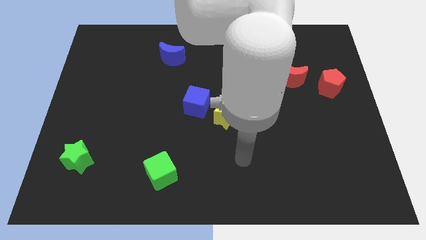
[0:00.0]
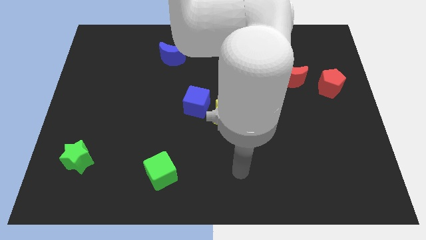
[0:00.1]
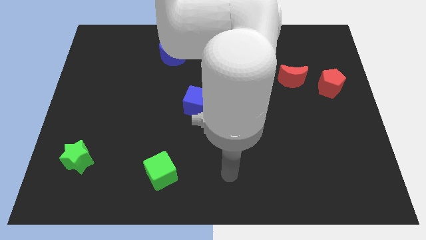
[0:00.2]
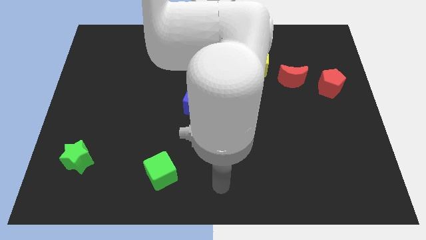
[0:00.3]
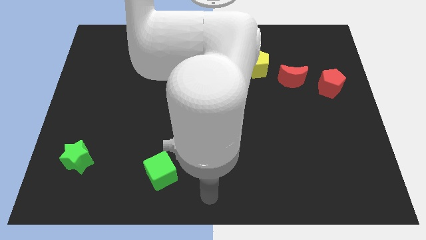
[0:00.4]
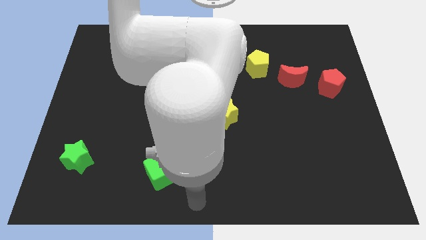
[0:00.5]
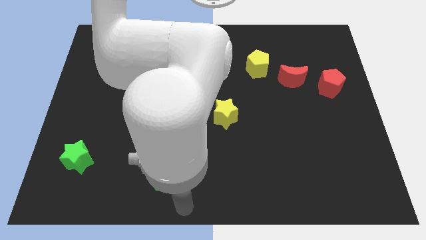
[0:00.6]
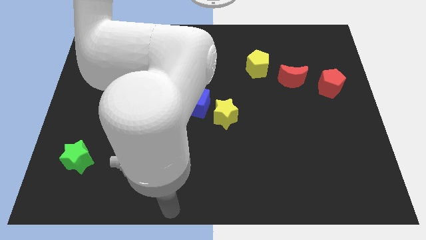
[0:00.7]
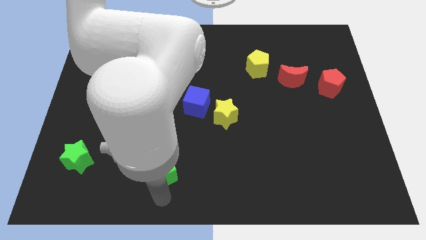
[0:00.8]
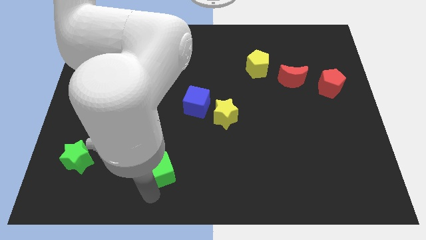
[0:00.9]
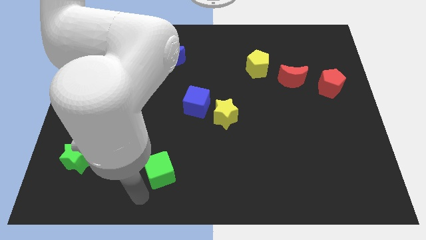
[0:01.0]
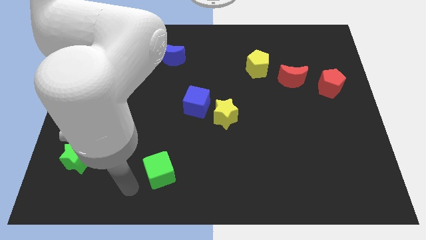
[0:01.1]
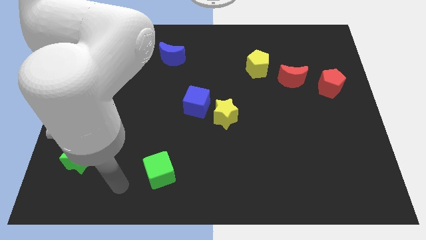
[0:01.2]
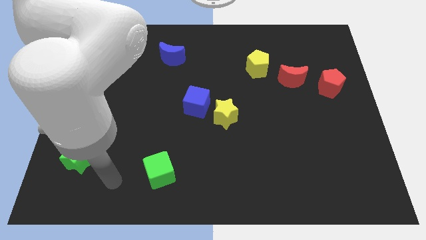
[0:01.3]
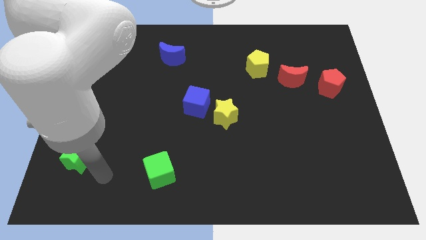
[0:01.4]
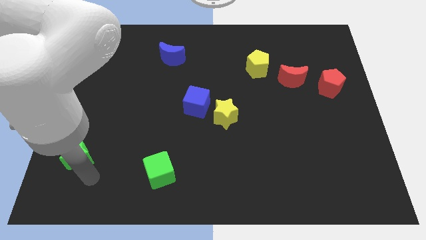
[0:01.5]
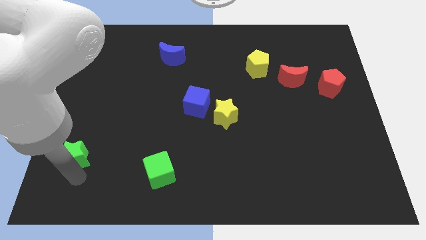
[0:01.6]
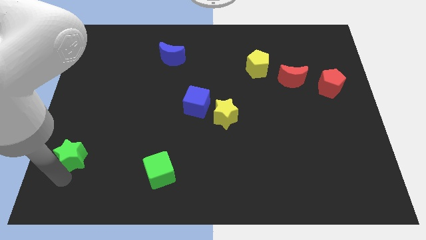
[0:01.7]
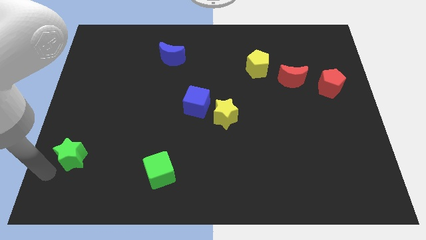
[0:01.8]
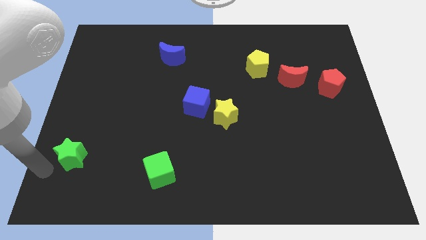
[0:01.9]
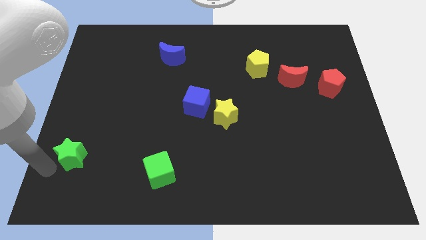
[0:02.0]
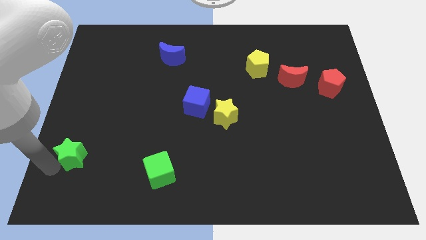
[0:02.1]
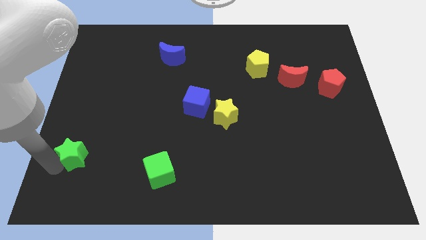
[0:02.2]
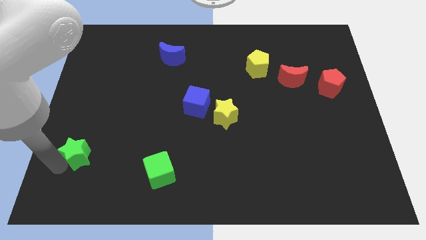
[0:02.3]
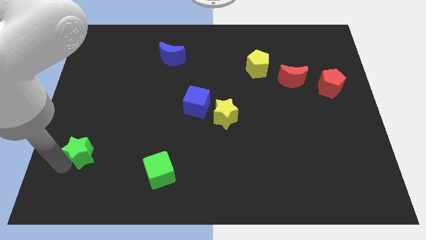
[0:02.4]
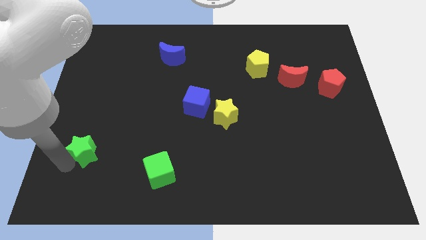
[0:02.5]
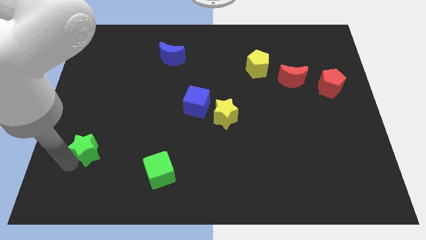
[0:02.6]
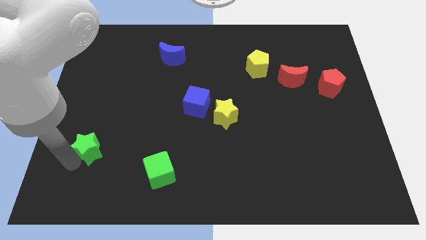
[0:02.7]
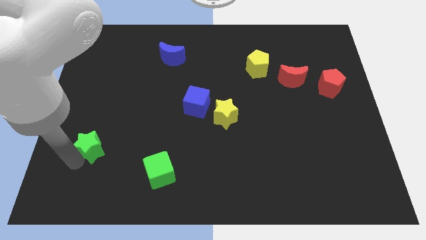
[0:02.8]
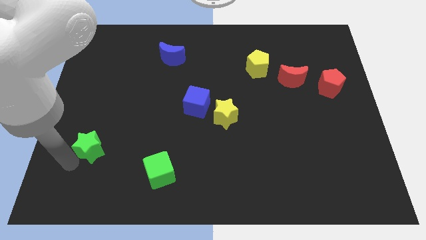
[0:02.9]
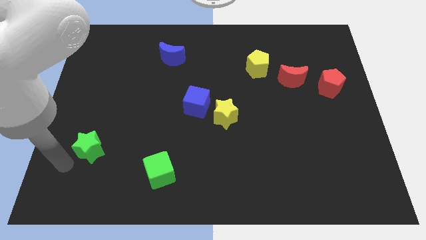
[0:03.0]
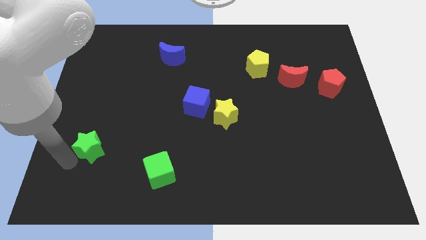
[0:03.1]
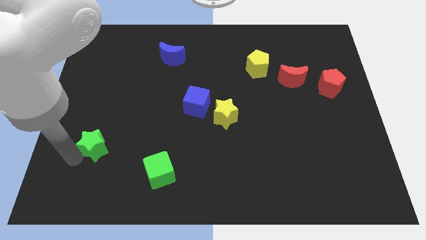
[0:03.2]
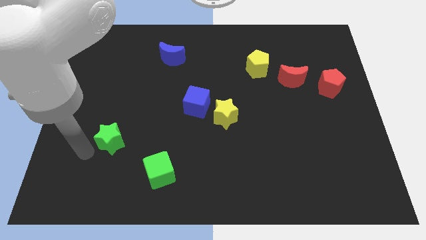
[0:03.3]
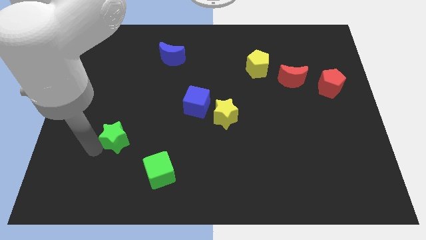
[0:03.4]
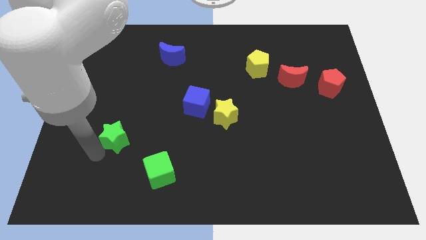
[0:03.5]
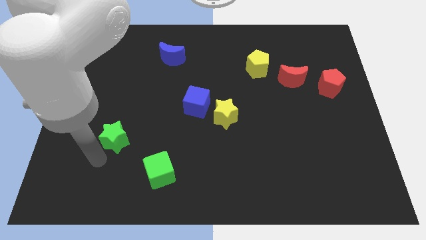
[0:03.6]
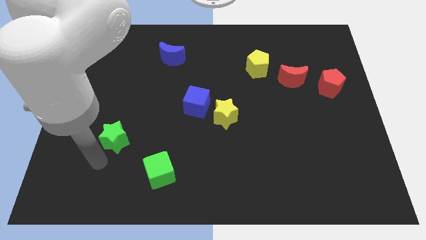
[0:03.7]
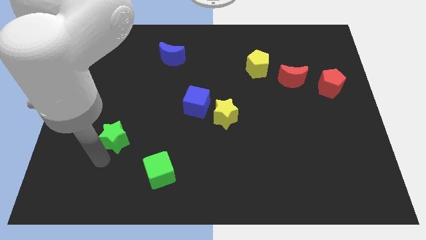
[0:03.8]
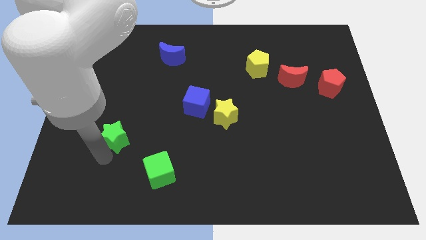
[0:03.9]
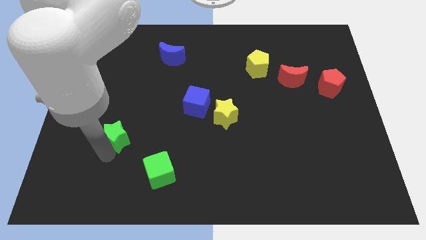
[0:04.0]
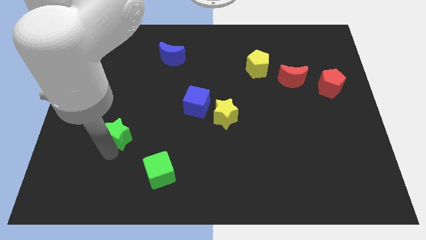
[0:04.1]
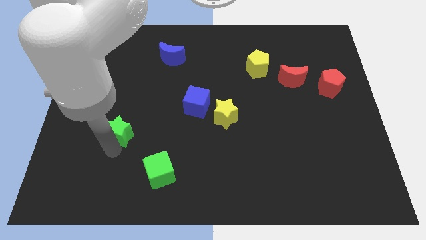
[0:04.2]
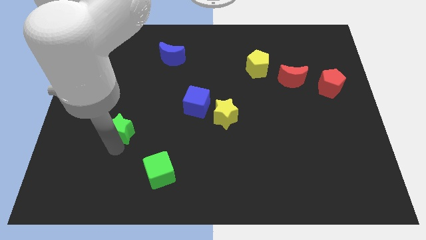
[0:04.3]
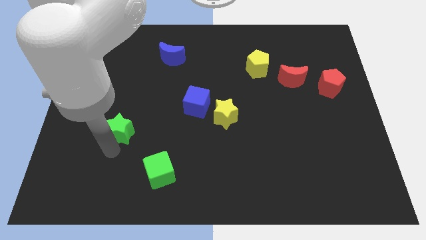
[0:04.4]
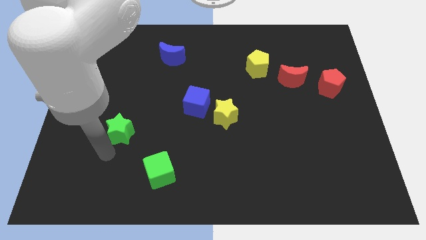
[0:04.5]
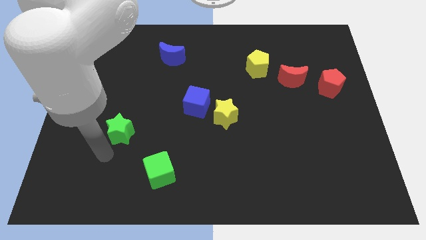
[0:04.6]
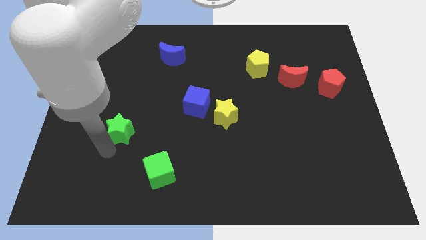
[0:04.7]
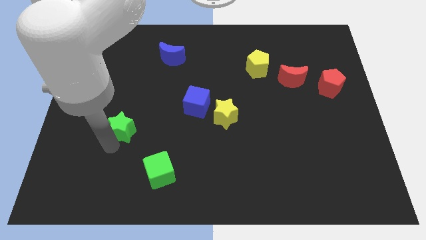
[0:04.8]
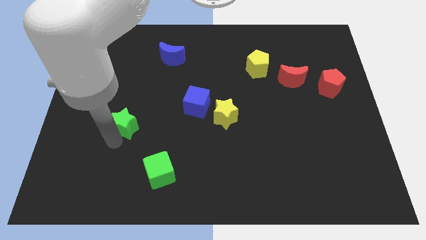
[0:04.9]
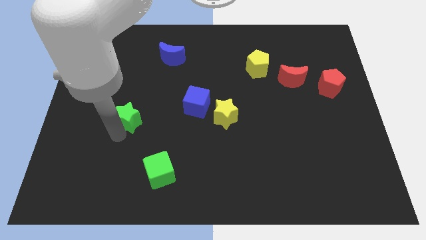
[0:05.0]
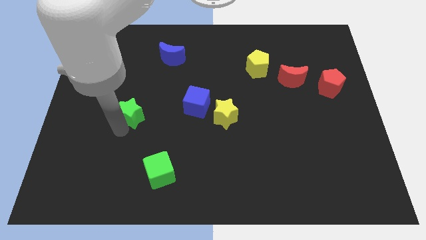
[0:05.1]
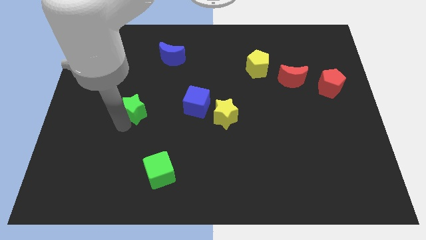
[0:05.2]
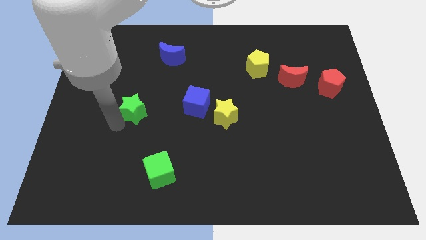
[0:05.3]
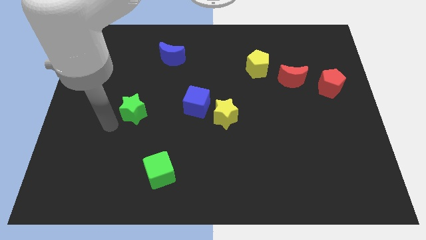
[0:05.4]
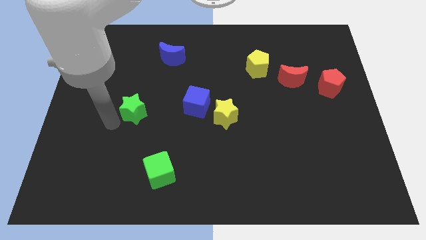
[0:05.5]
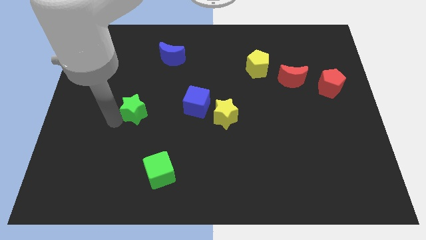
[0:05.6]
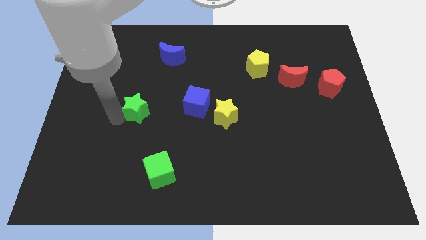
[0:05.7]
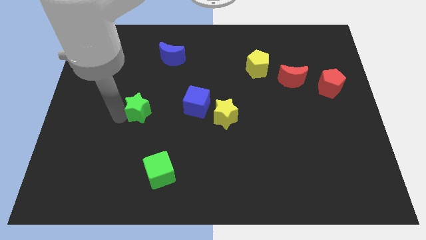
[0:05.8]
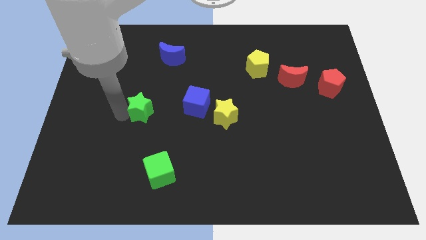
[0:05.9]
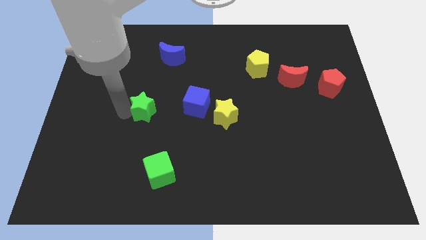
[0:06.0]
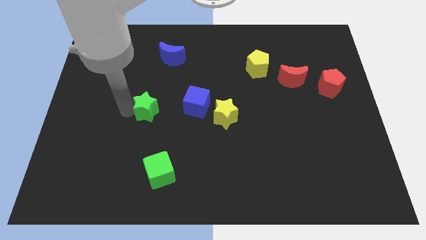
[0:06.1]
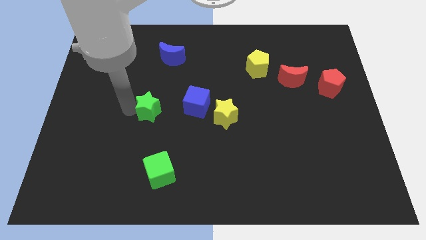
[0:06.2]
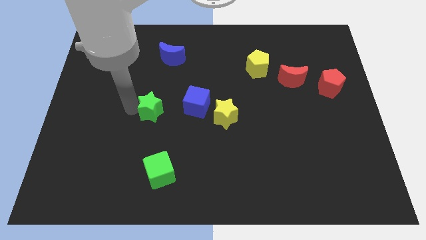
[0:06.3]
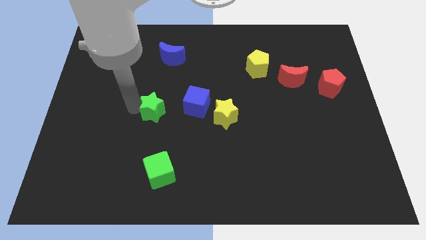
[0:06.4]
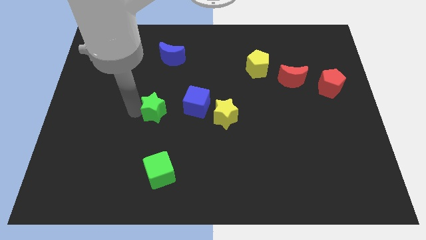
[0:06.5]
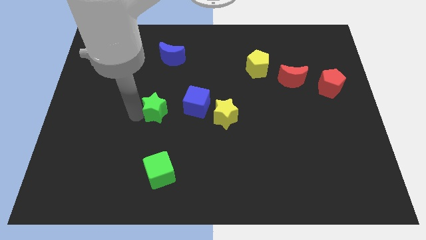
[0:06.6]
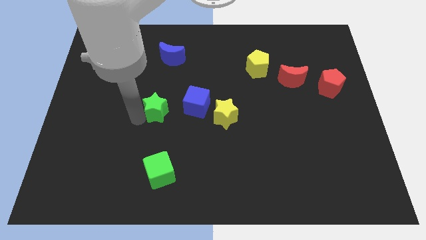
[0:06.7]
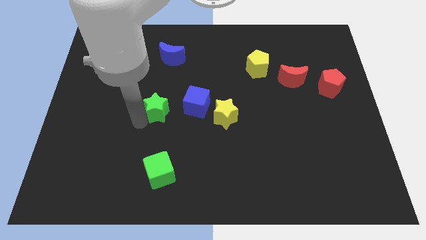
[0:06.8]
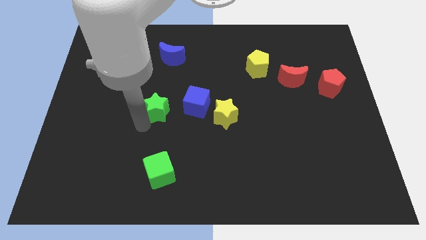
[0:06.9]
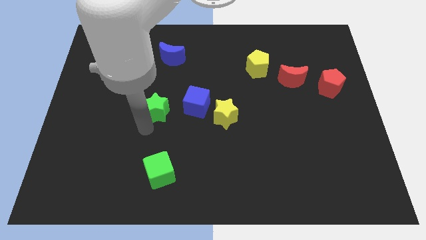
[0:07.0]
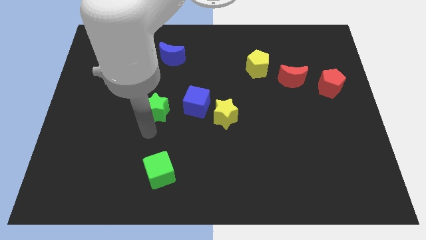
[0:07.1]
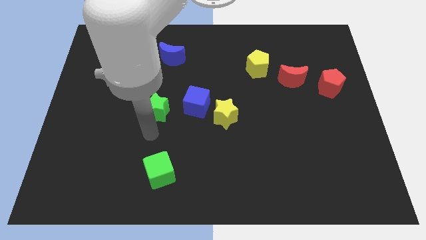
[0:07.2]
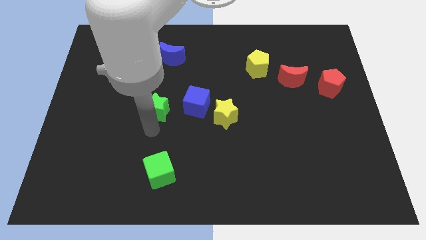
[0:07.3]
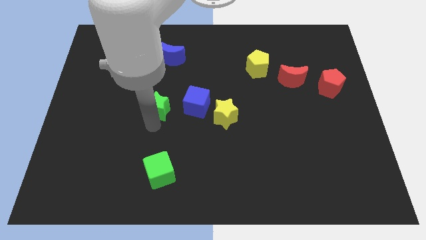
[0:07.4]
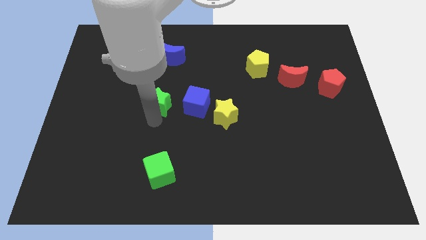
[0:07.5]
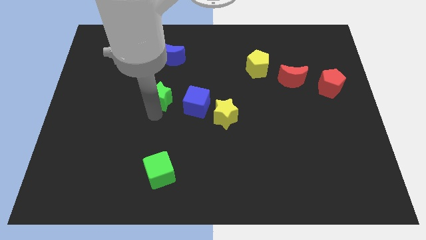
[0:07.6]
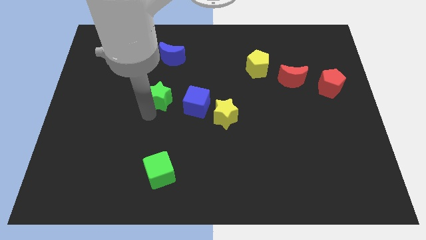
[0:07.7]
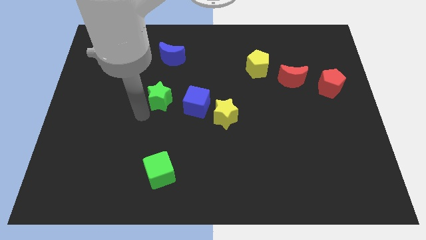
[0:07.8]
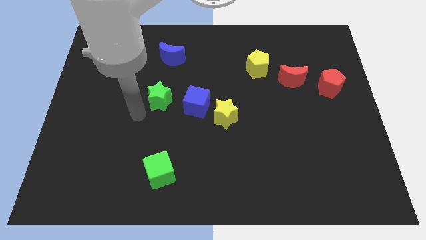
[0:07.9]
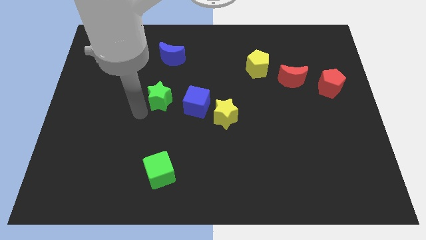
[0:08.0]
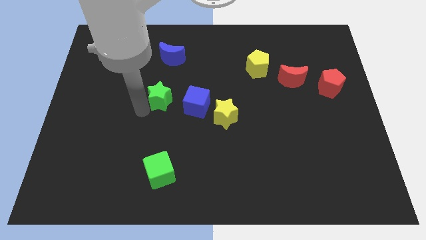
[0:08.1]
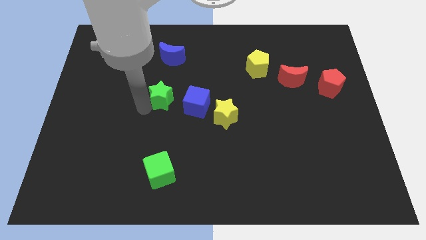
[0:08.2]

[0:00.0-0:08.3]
slide the green star to the center
